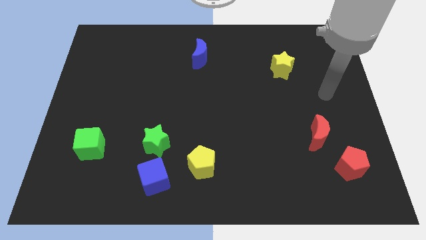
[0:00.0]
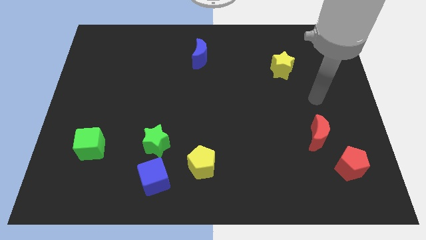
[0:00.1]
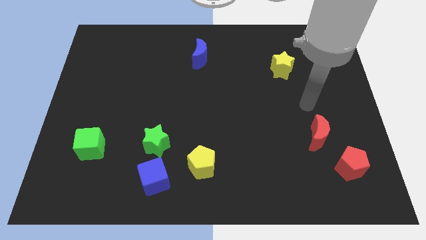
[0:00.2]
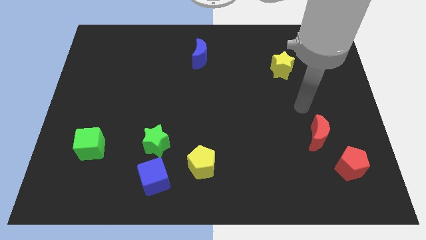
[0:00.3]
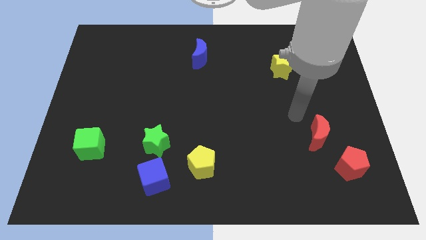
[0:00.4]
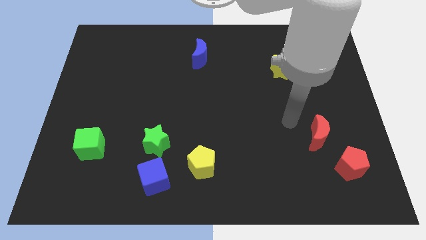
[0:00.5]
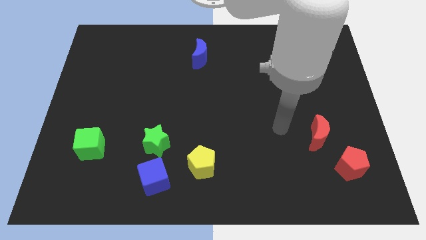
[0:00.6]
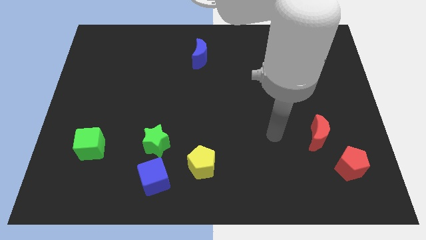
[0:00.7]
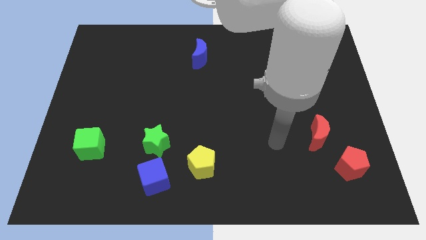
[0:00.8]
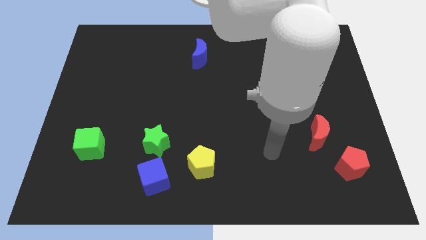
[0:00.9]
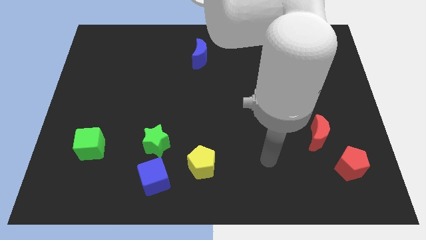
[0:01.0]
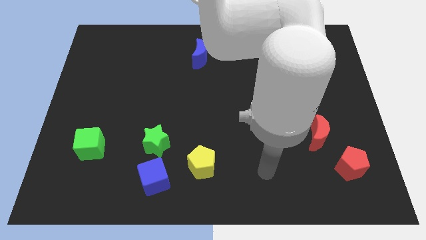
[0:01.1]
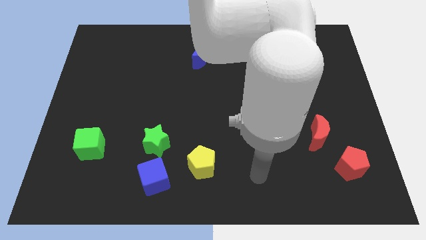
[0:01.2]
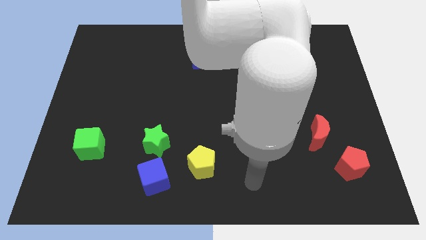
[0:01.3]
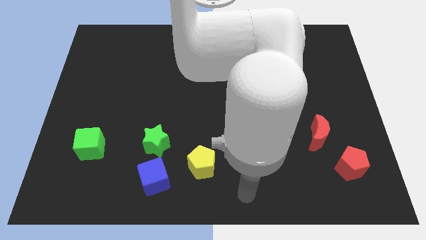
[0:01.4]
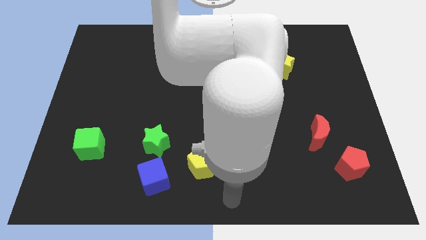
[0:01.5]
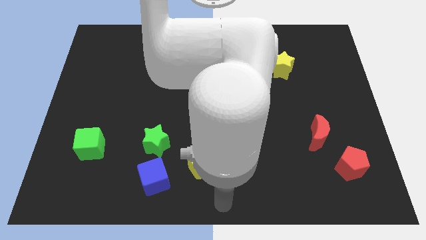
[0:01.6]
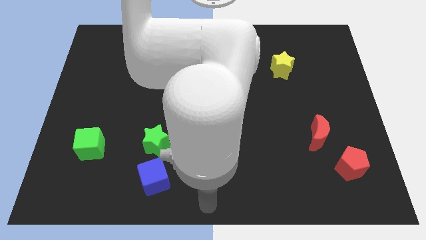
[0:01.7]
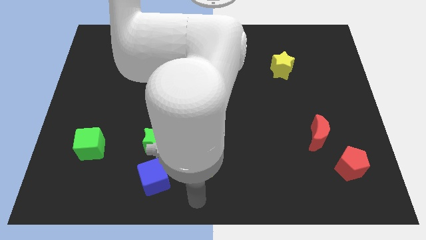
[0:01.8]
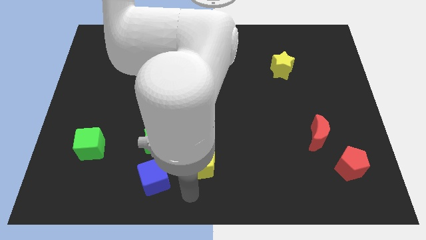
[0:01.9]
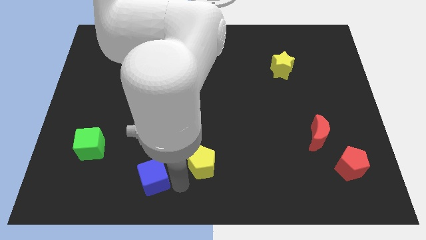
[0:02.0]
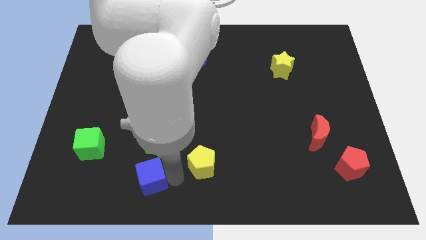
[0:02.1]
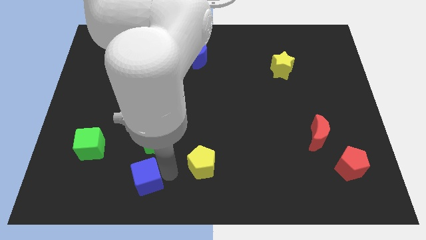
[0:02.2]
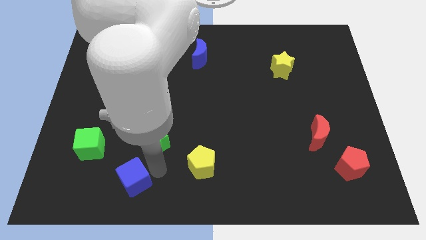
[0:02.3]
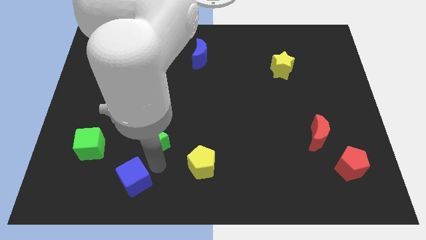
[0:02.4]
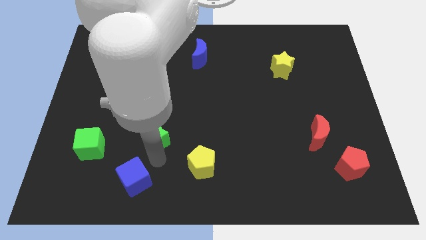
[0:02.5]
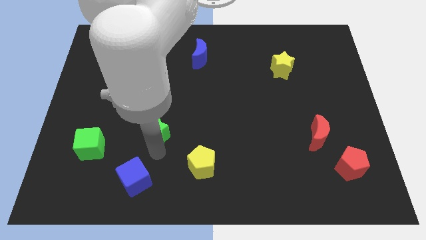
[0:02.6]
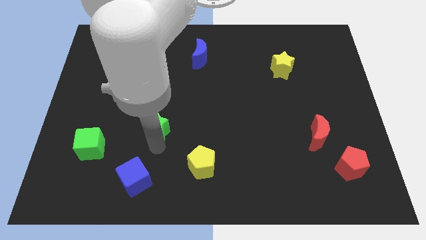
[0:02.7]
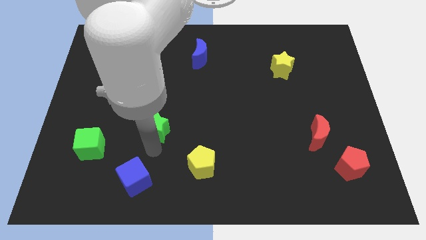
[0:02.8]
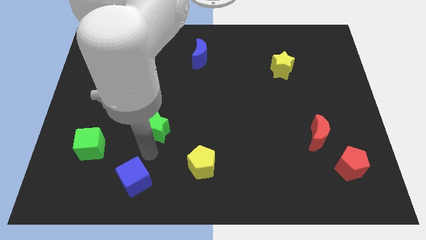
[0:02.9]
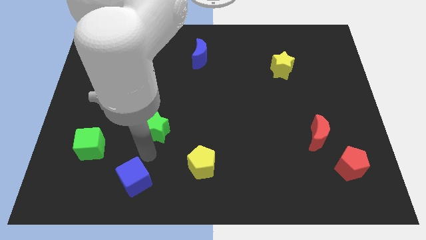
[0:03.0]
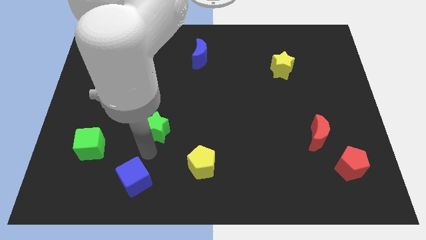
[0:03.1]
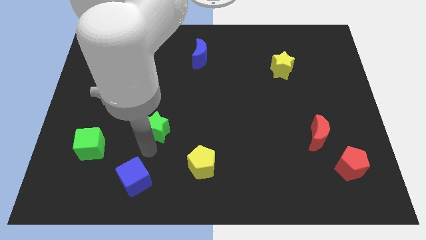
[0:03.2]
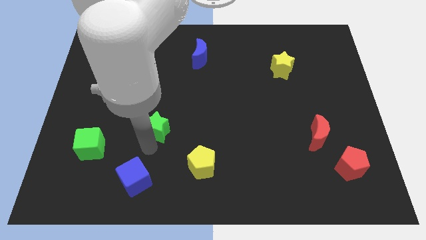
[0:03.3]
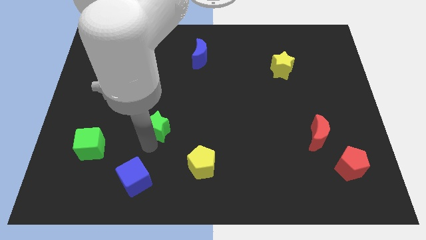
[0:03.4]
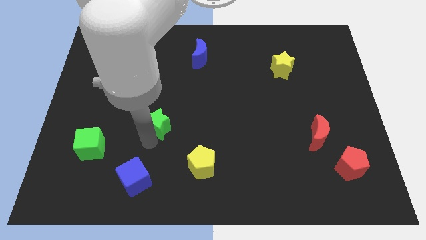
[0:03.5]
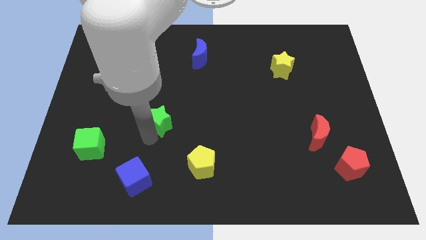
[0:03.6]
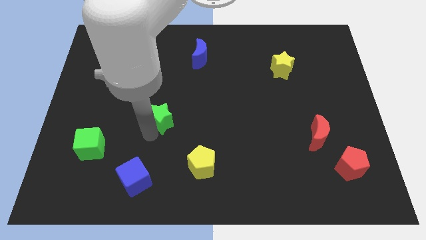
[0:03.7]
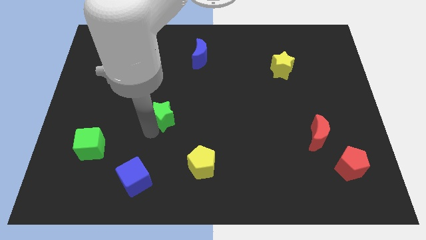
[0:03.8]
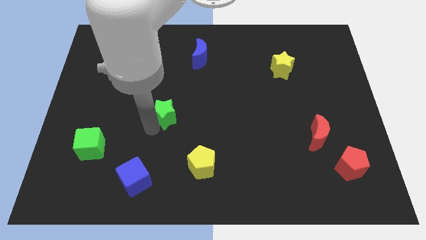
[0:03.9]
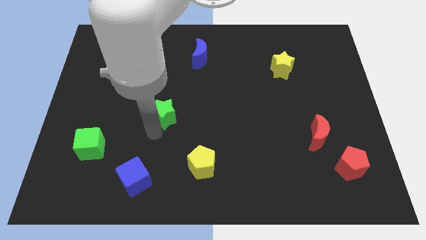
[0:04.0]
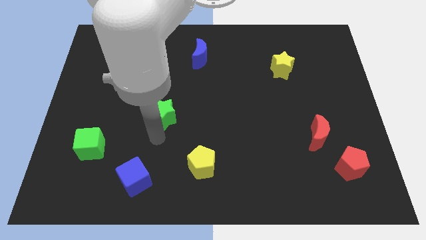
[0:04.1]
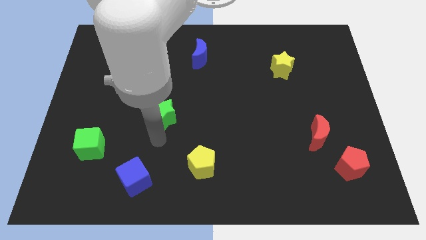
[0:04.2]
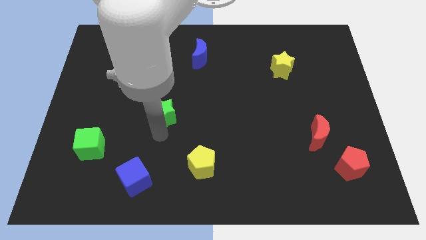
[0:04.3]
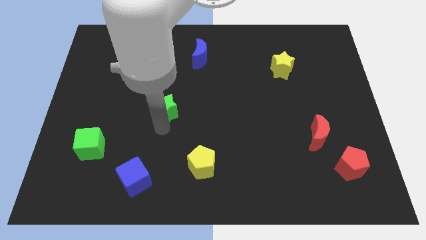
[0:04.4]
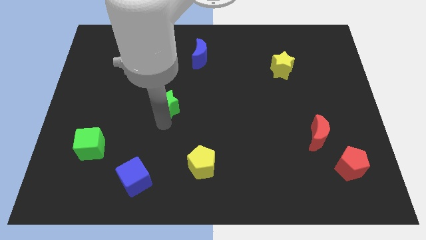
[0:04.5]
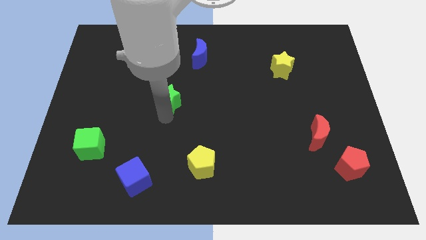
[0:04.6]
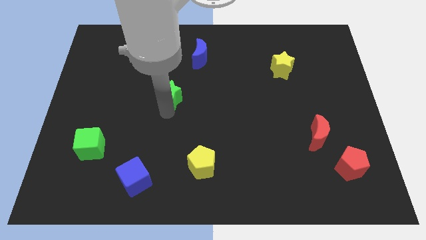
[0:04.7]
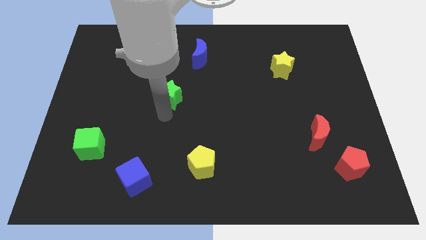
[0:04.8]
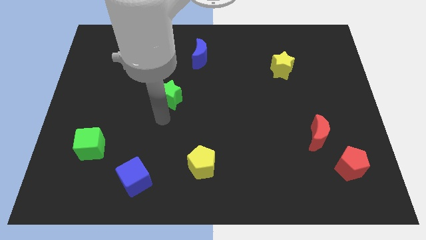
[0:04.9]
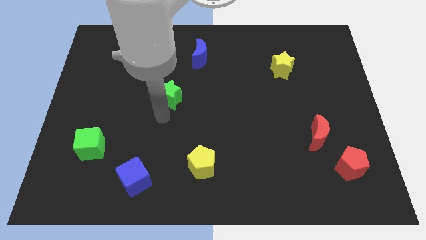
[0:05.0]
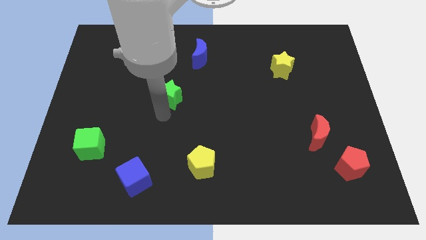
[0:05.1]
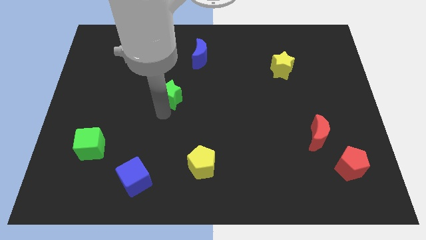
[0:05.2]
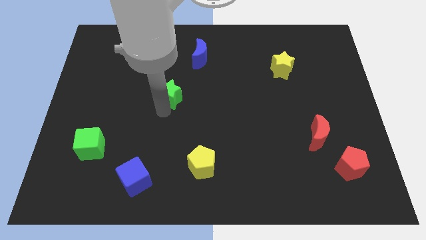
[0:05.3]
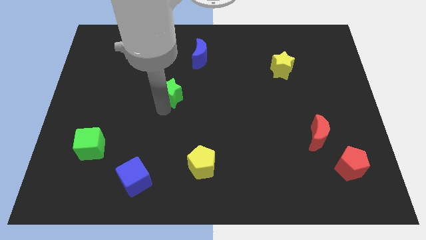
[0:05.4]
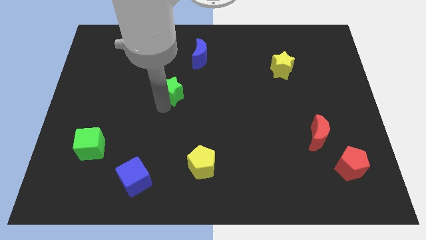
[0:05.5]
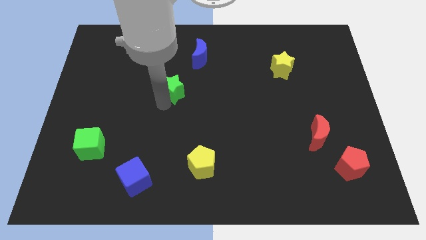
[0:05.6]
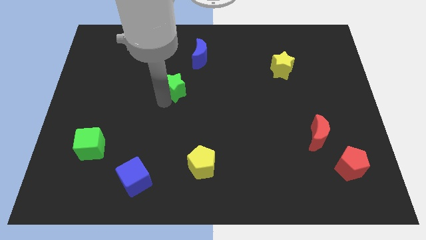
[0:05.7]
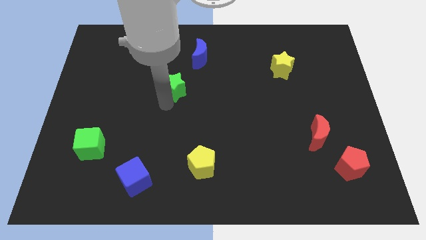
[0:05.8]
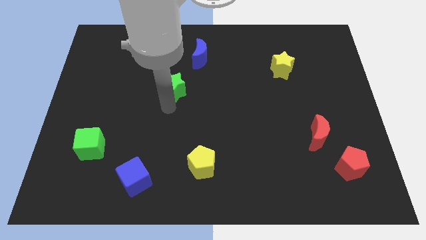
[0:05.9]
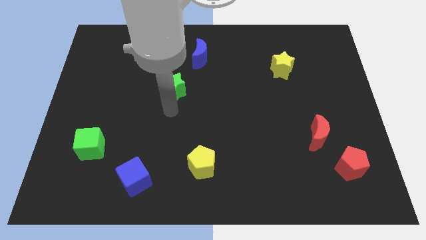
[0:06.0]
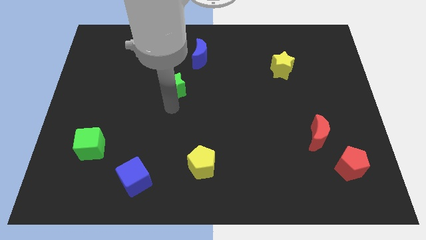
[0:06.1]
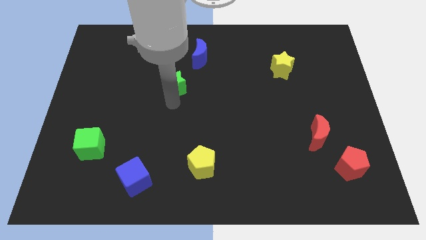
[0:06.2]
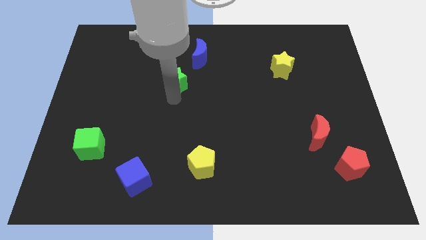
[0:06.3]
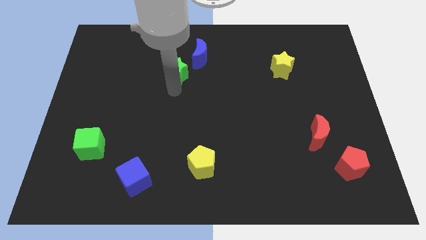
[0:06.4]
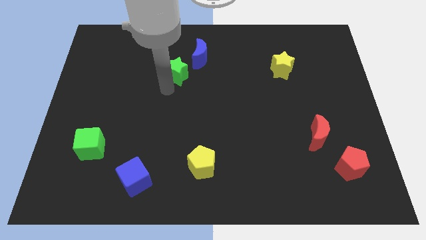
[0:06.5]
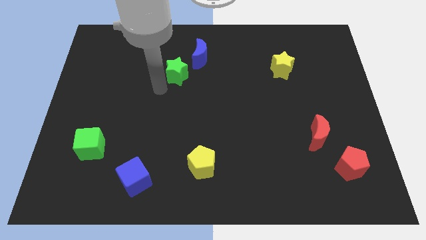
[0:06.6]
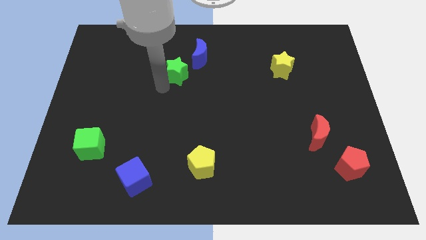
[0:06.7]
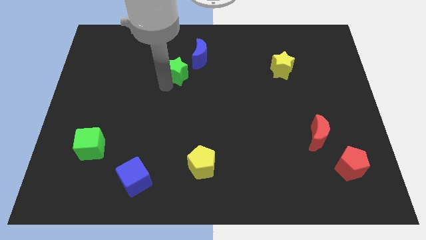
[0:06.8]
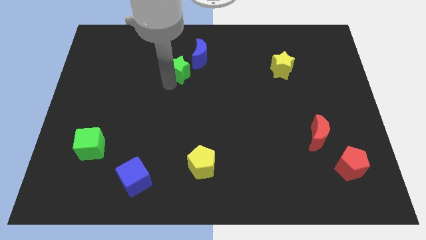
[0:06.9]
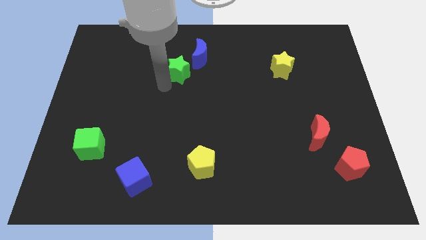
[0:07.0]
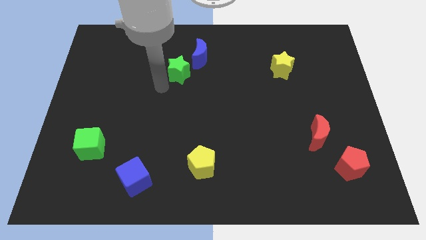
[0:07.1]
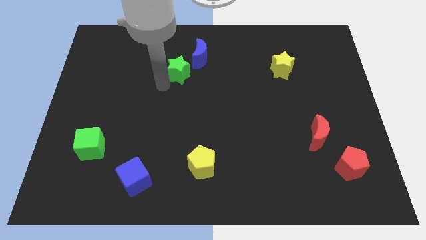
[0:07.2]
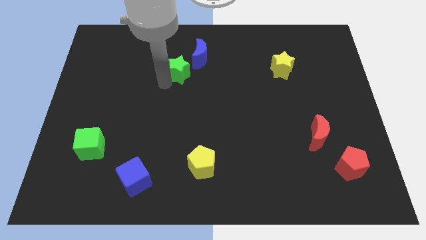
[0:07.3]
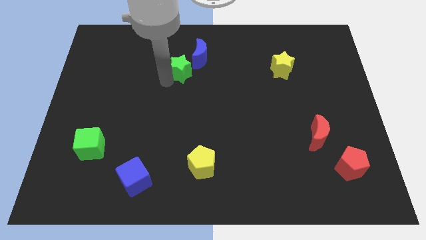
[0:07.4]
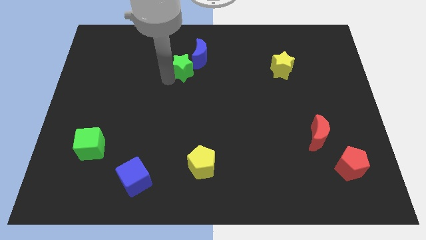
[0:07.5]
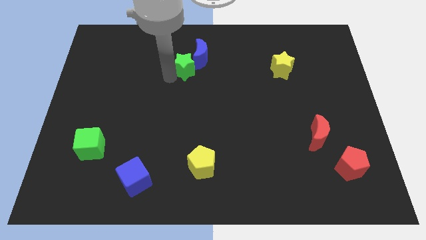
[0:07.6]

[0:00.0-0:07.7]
move the green star to the blue moon

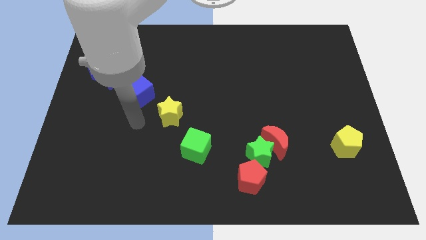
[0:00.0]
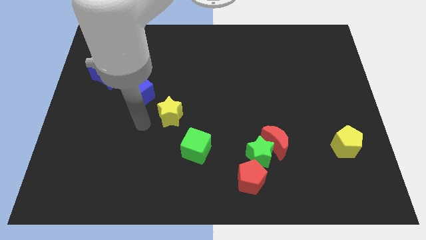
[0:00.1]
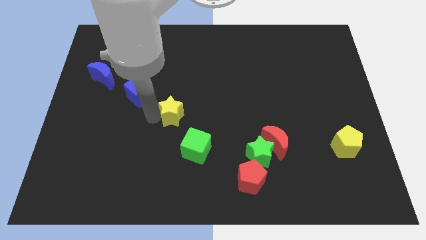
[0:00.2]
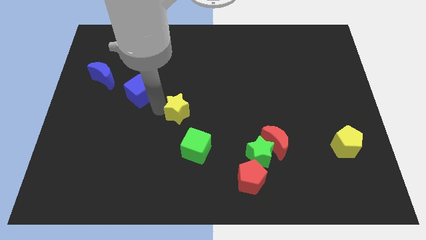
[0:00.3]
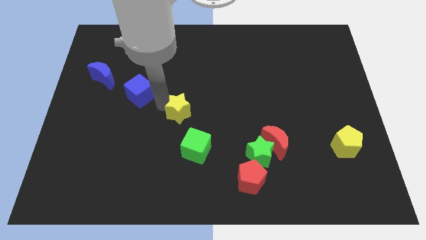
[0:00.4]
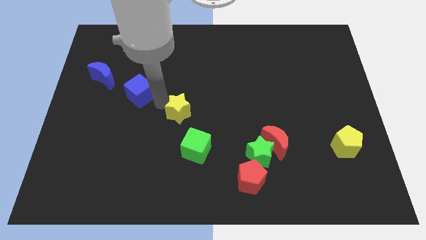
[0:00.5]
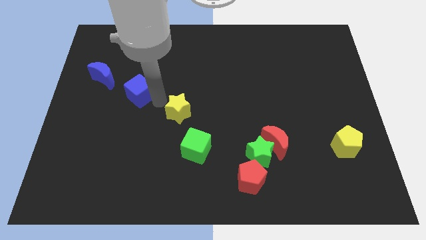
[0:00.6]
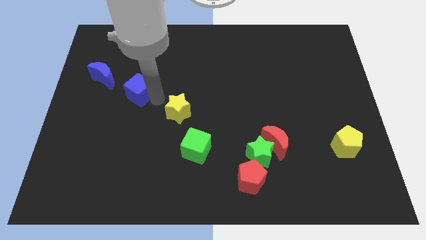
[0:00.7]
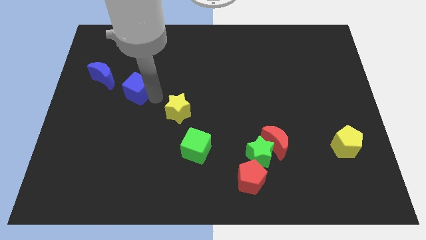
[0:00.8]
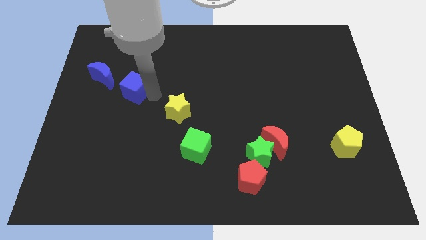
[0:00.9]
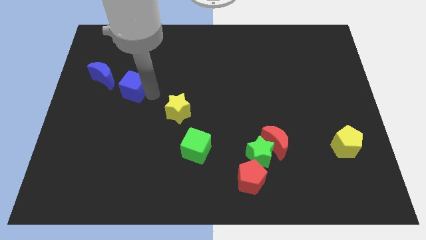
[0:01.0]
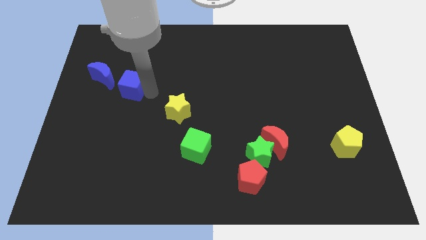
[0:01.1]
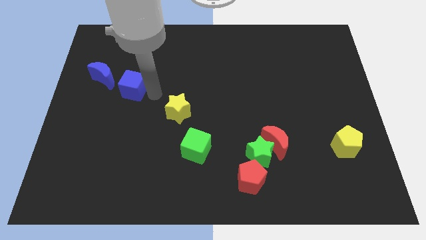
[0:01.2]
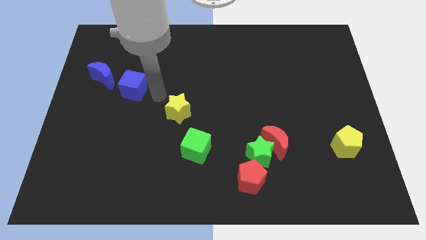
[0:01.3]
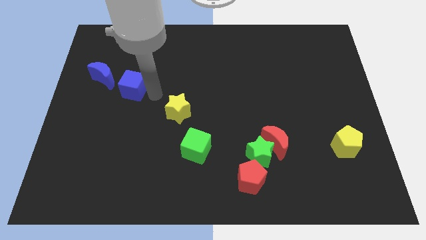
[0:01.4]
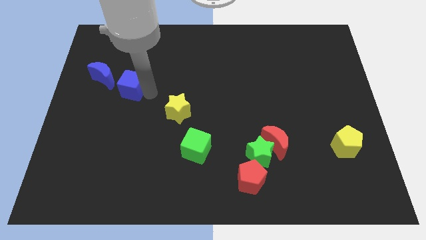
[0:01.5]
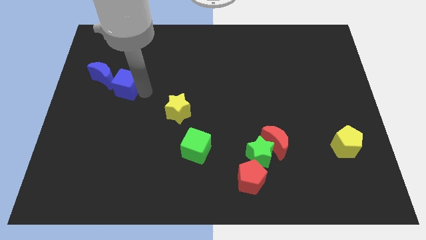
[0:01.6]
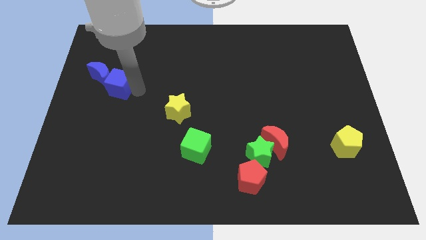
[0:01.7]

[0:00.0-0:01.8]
put the blue cube close to the blue moon
